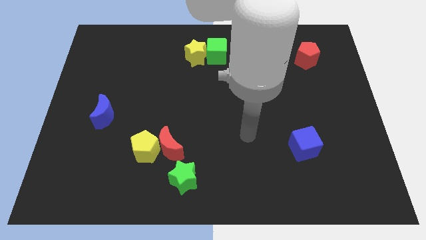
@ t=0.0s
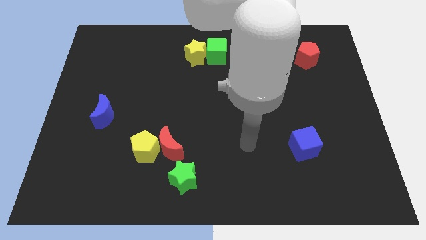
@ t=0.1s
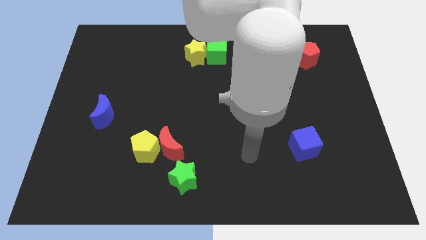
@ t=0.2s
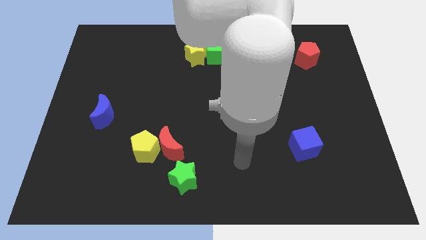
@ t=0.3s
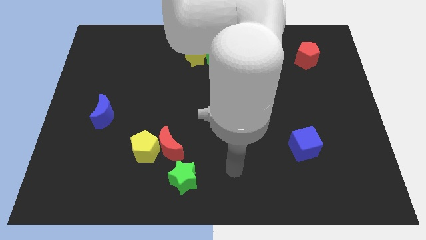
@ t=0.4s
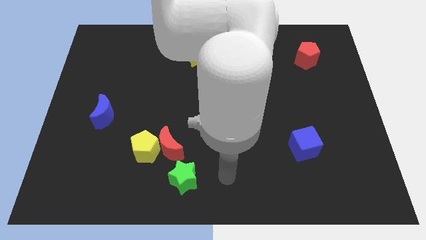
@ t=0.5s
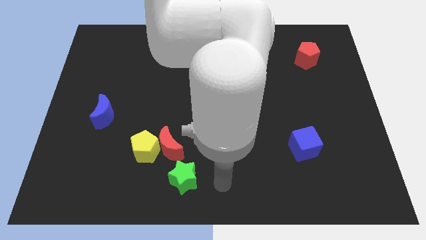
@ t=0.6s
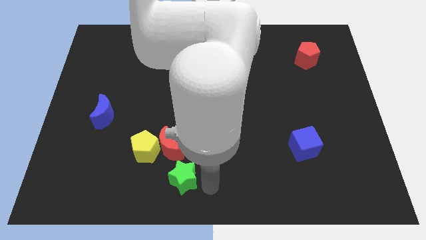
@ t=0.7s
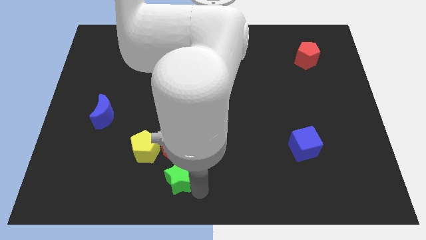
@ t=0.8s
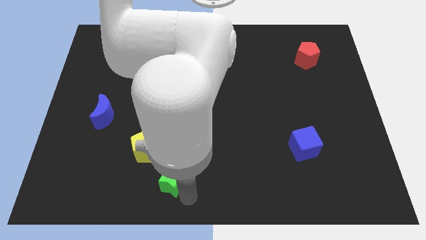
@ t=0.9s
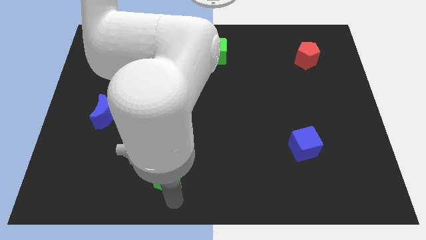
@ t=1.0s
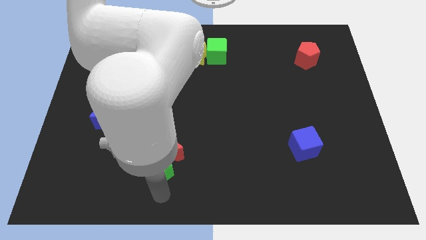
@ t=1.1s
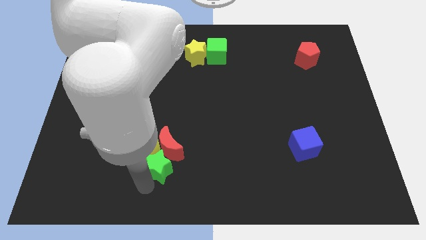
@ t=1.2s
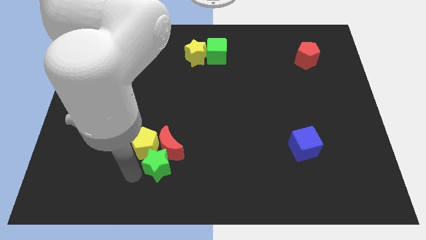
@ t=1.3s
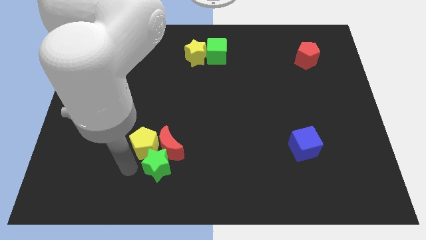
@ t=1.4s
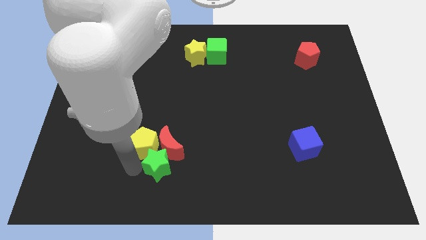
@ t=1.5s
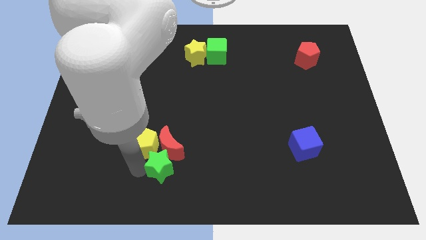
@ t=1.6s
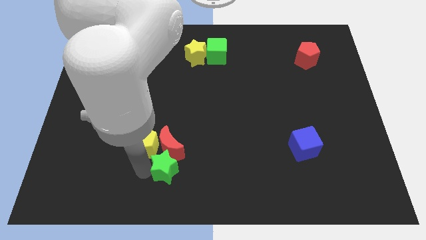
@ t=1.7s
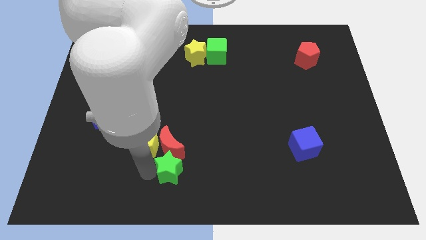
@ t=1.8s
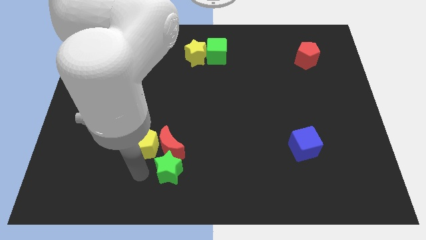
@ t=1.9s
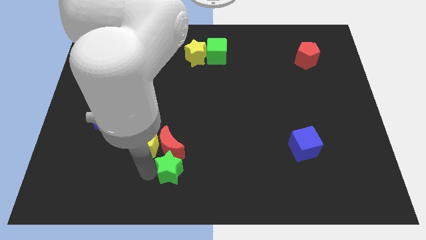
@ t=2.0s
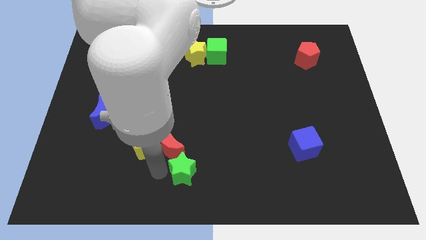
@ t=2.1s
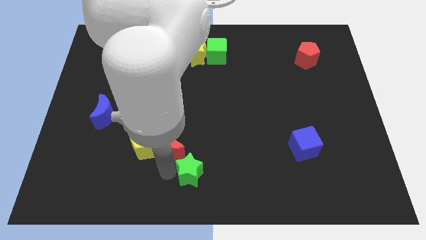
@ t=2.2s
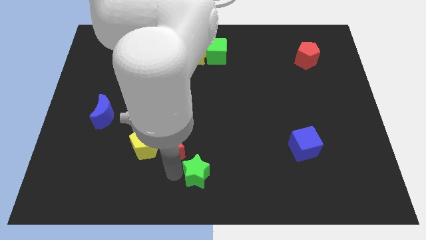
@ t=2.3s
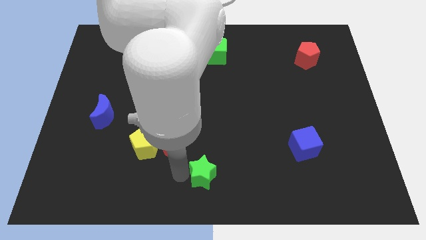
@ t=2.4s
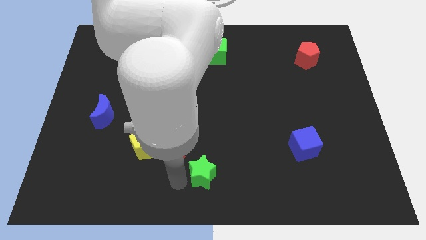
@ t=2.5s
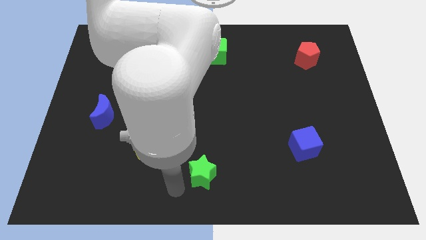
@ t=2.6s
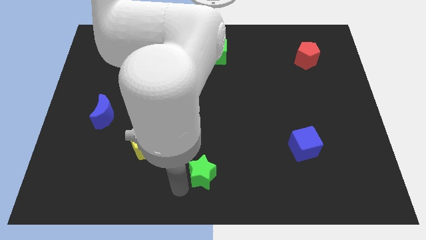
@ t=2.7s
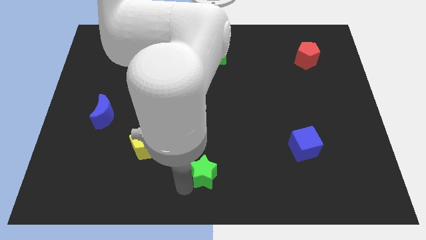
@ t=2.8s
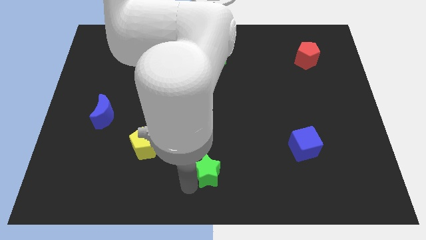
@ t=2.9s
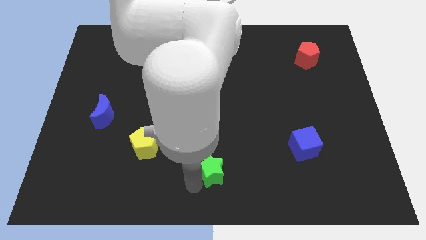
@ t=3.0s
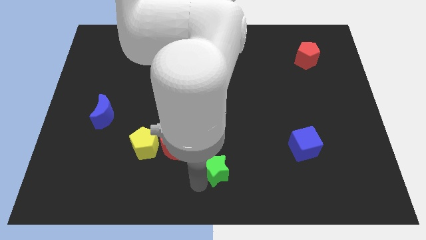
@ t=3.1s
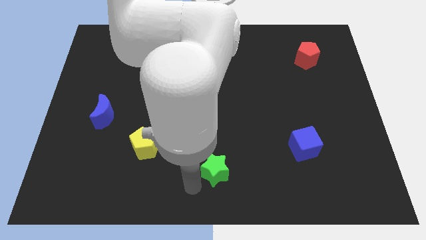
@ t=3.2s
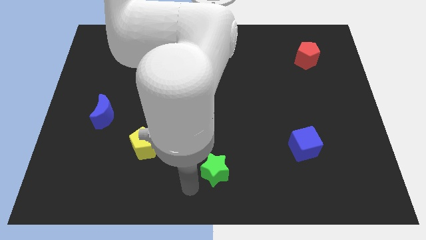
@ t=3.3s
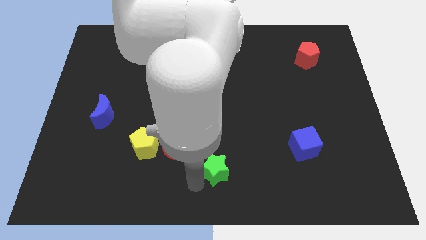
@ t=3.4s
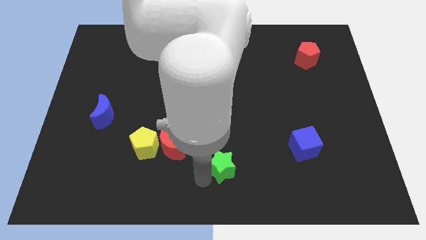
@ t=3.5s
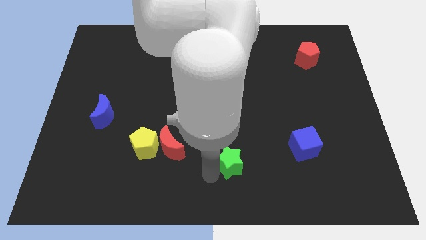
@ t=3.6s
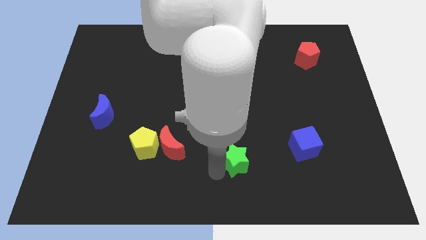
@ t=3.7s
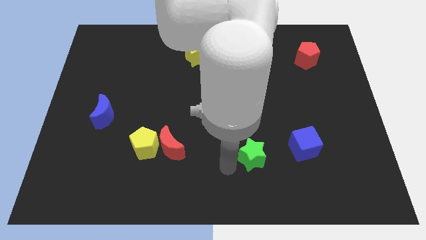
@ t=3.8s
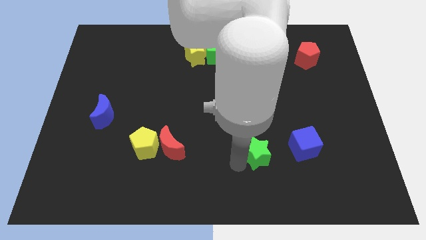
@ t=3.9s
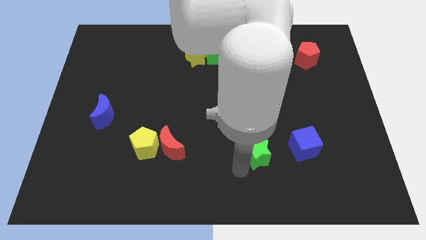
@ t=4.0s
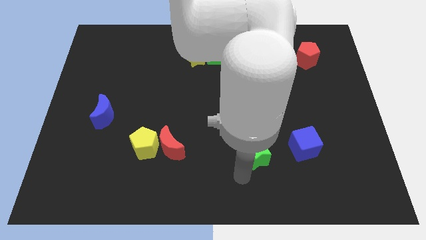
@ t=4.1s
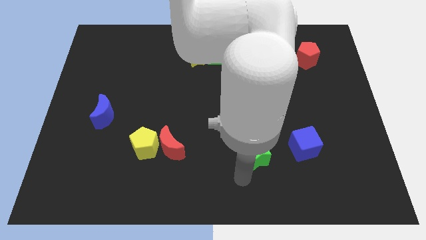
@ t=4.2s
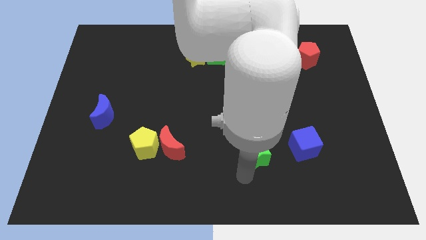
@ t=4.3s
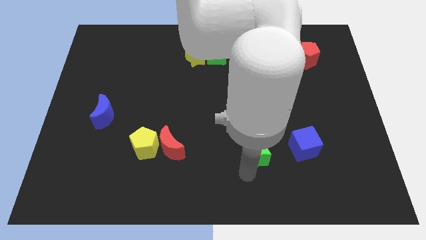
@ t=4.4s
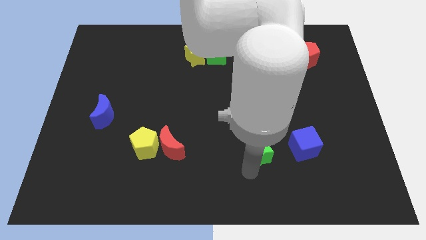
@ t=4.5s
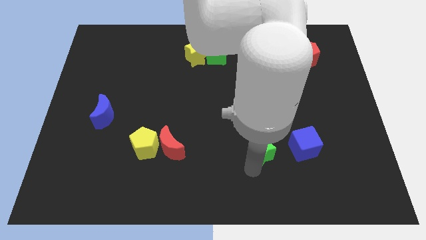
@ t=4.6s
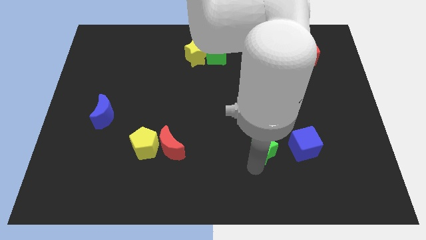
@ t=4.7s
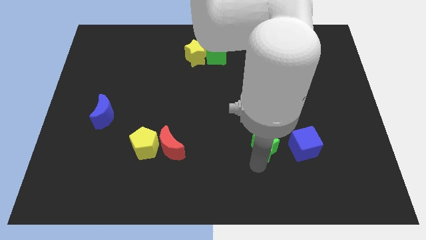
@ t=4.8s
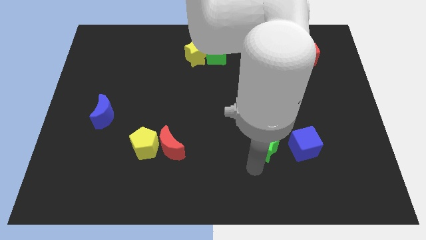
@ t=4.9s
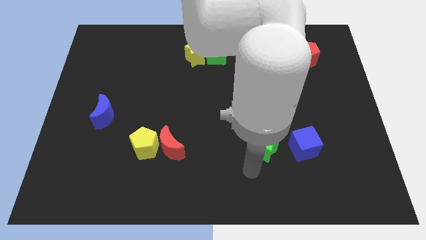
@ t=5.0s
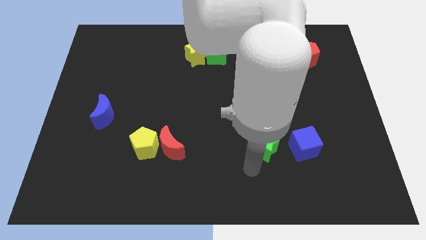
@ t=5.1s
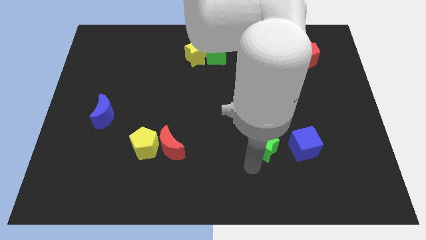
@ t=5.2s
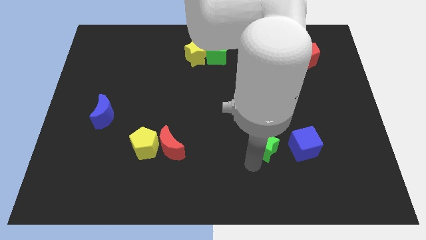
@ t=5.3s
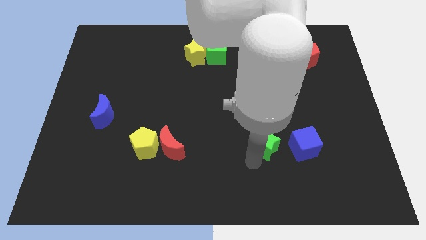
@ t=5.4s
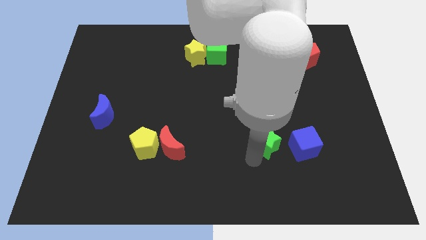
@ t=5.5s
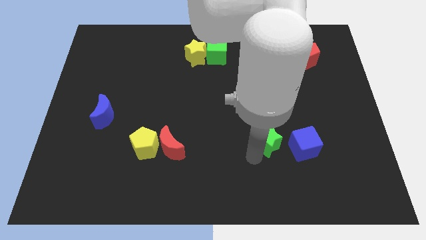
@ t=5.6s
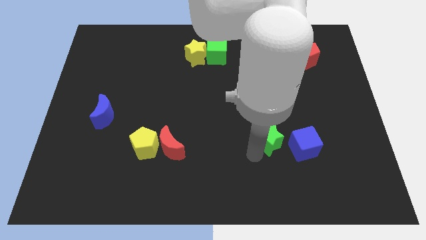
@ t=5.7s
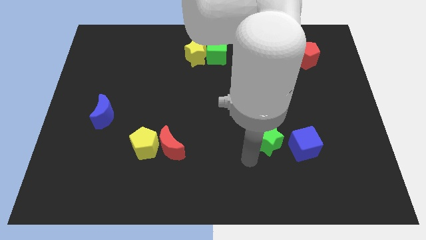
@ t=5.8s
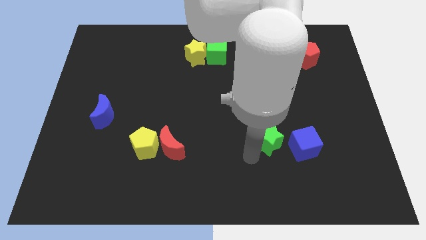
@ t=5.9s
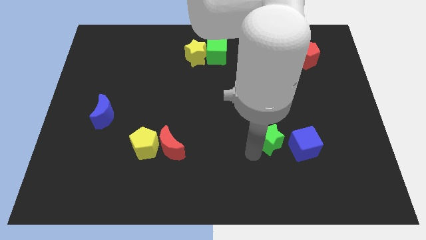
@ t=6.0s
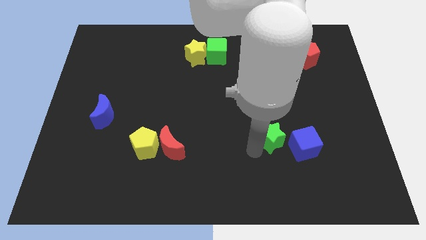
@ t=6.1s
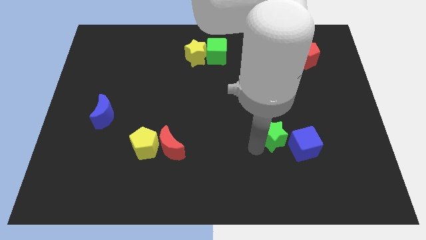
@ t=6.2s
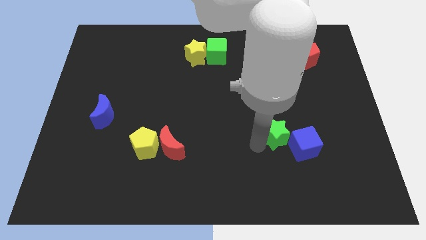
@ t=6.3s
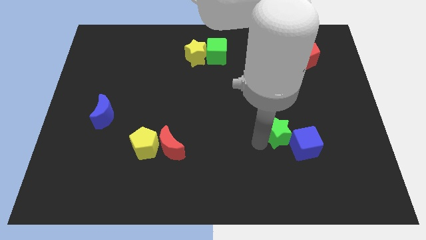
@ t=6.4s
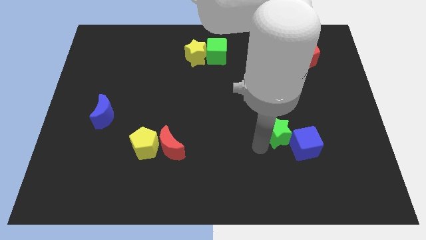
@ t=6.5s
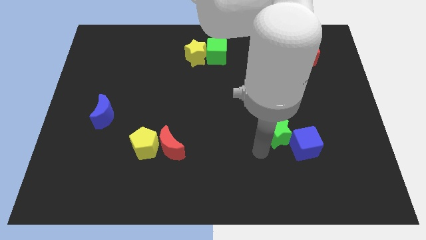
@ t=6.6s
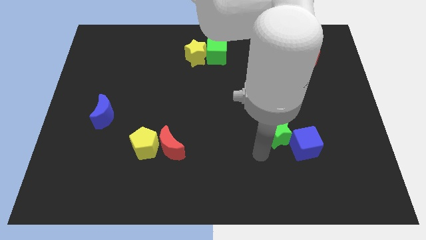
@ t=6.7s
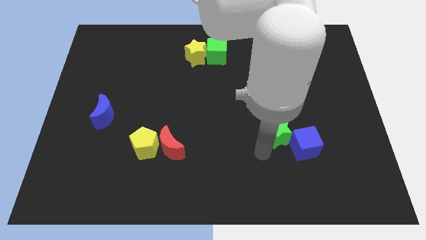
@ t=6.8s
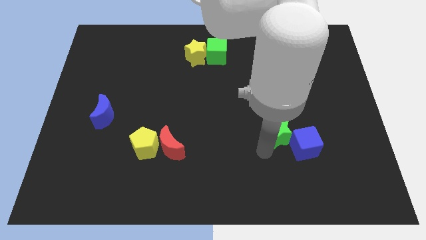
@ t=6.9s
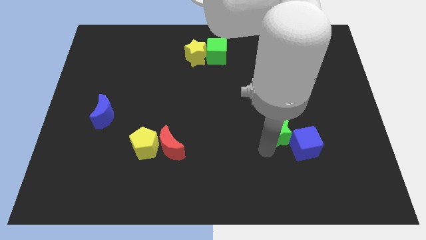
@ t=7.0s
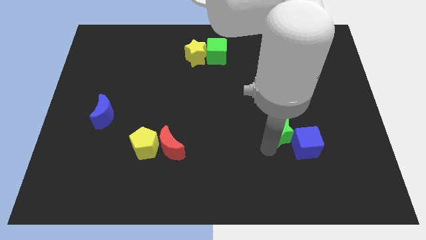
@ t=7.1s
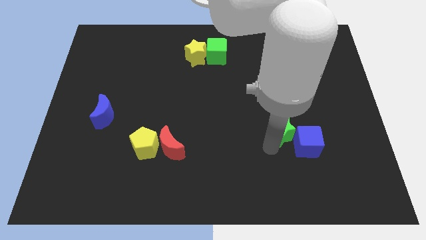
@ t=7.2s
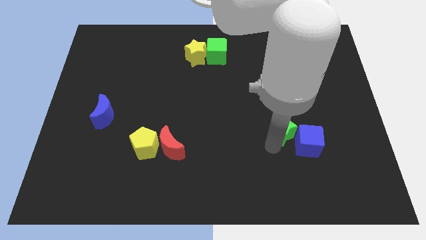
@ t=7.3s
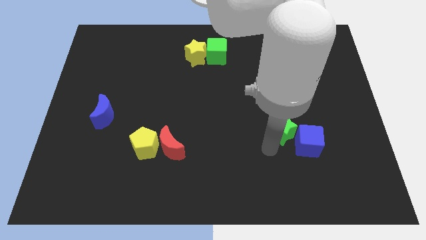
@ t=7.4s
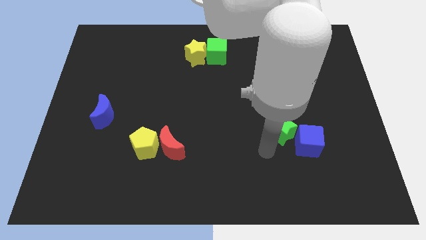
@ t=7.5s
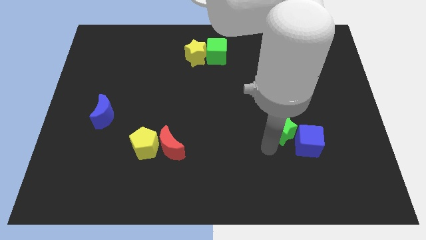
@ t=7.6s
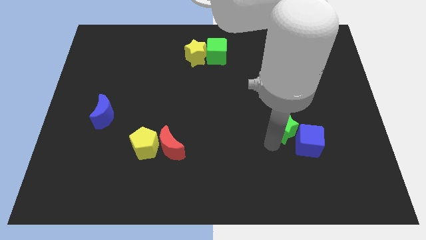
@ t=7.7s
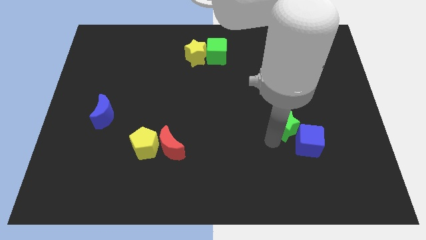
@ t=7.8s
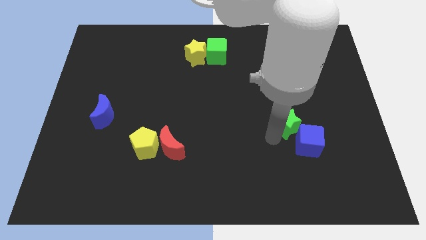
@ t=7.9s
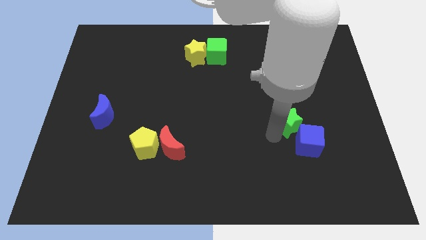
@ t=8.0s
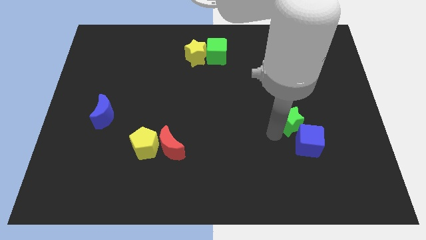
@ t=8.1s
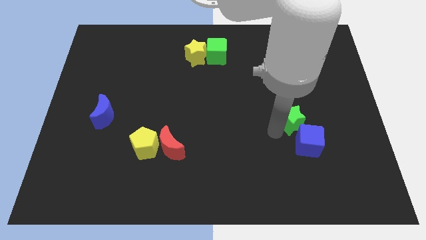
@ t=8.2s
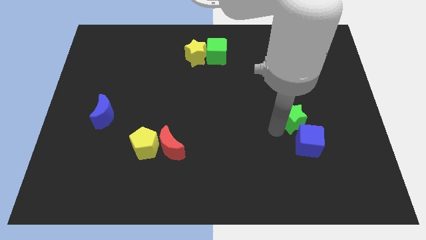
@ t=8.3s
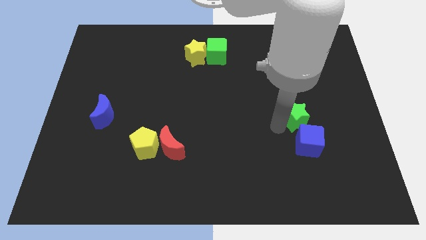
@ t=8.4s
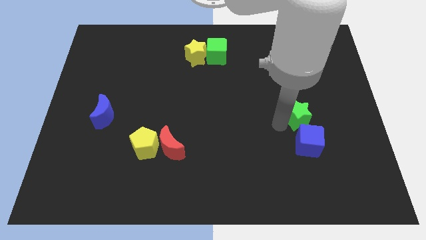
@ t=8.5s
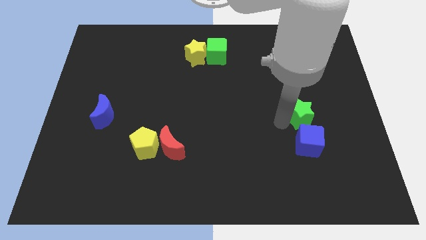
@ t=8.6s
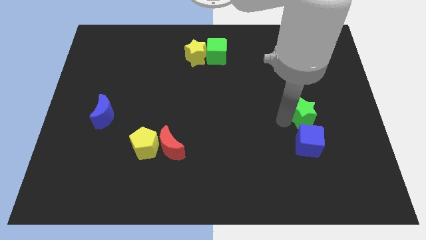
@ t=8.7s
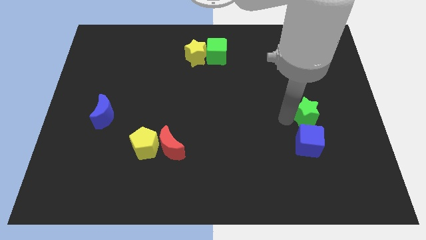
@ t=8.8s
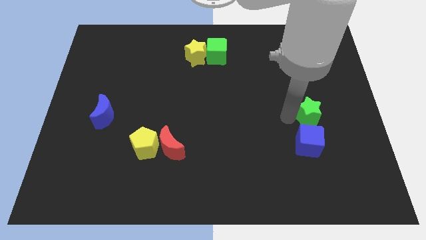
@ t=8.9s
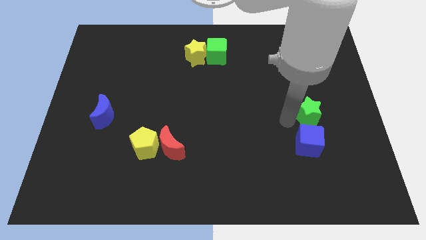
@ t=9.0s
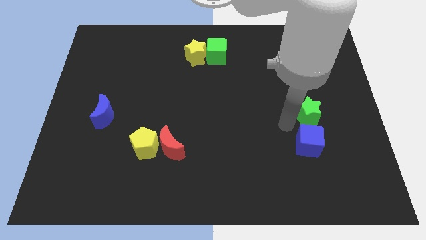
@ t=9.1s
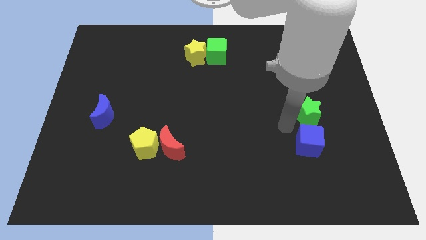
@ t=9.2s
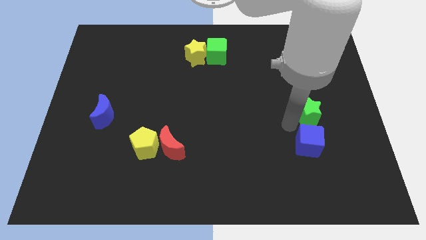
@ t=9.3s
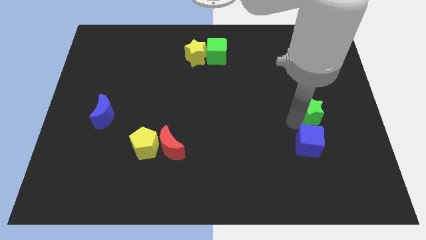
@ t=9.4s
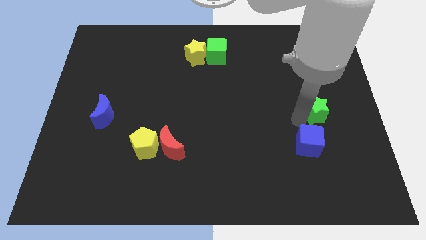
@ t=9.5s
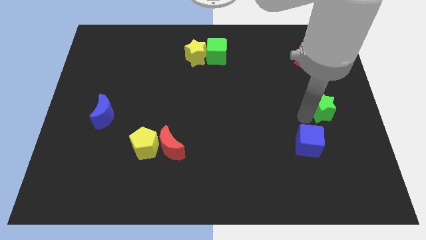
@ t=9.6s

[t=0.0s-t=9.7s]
slide the green star to the center right
